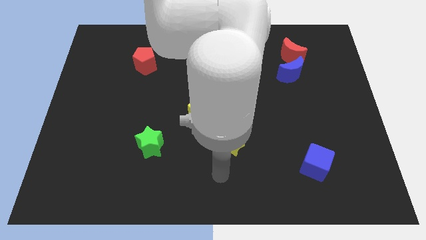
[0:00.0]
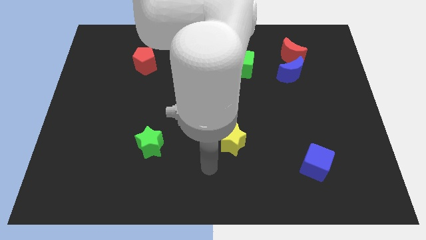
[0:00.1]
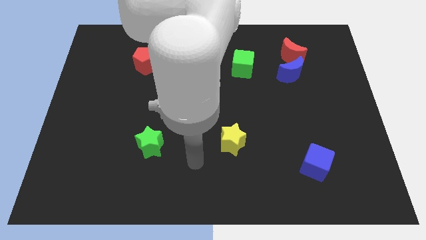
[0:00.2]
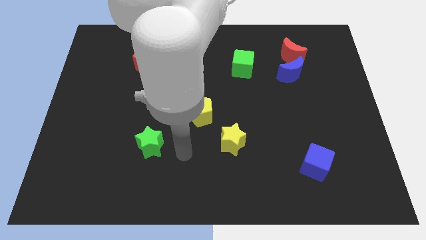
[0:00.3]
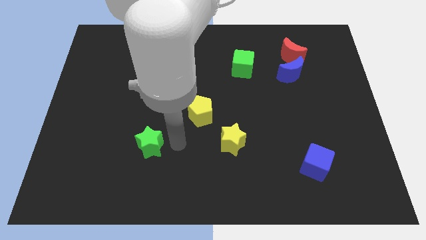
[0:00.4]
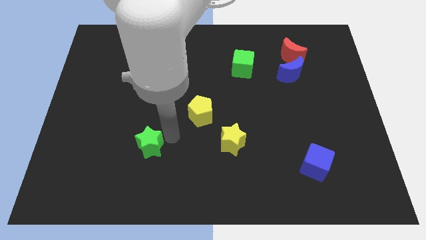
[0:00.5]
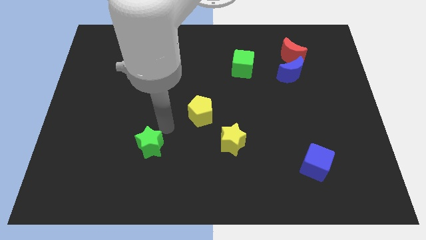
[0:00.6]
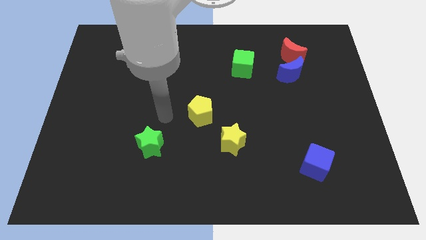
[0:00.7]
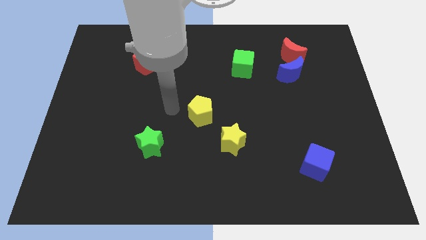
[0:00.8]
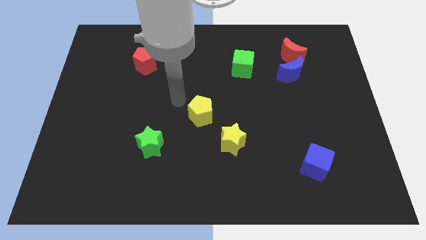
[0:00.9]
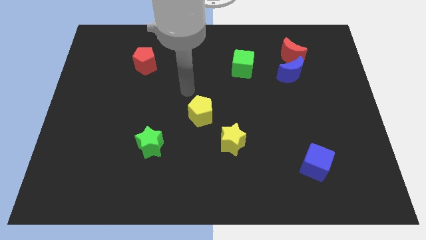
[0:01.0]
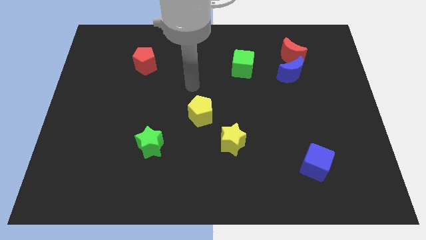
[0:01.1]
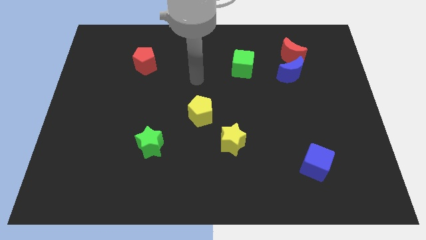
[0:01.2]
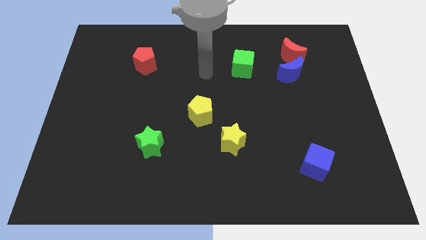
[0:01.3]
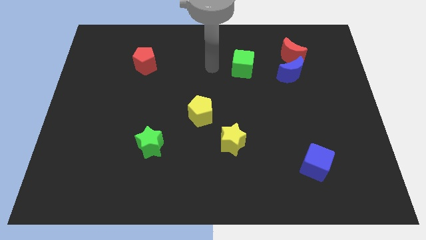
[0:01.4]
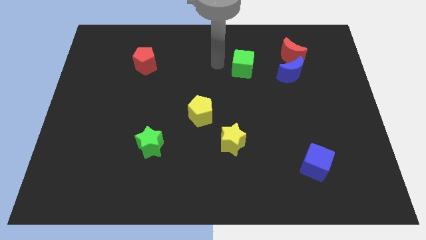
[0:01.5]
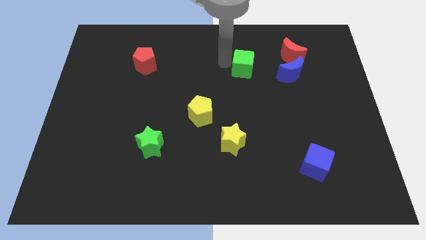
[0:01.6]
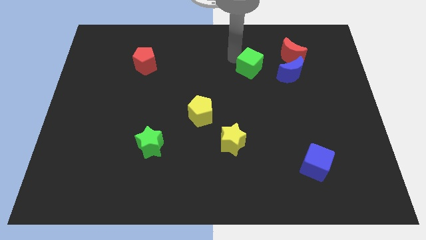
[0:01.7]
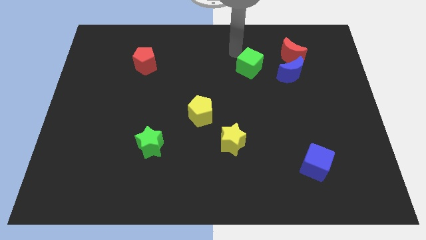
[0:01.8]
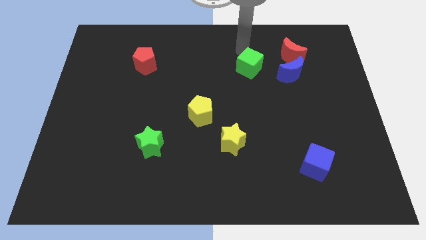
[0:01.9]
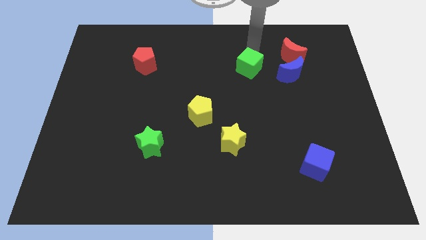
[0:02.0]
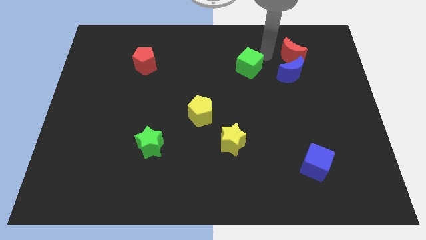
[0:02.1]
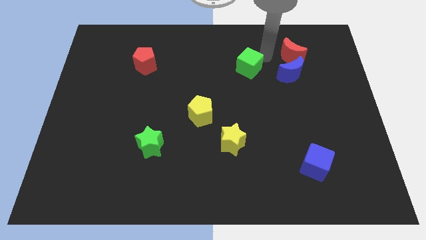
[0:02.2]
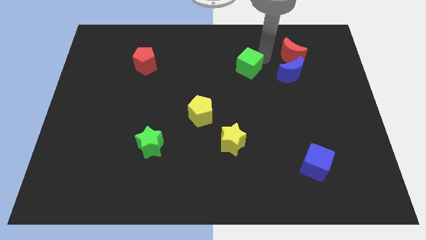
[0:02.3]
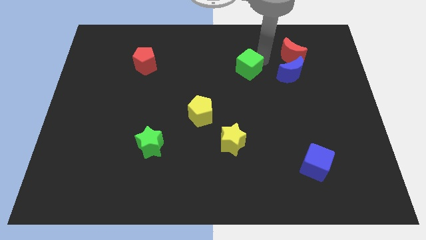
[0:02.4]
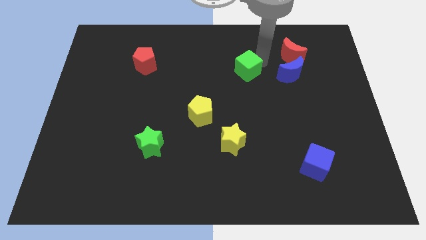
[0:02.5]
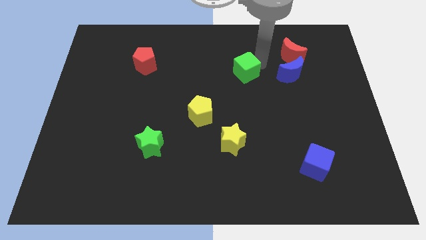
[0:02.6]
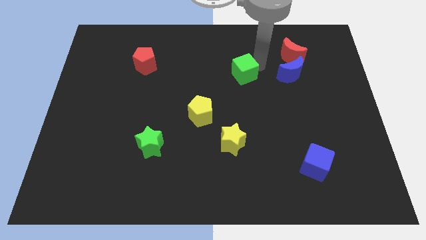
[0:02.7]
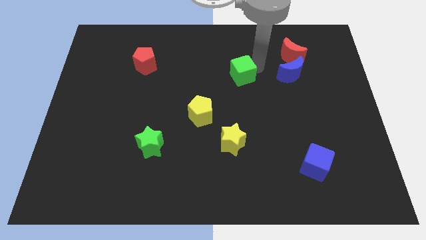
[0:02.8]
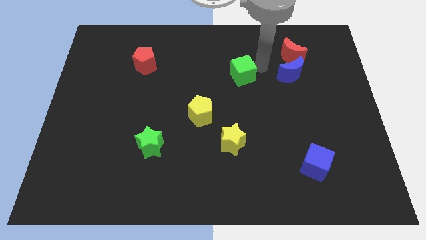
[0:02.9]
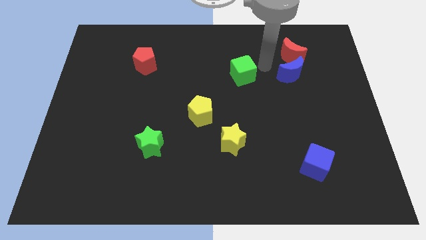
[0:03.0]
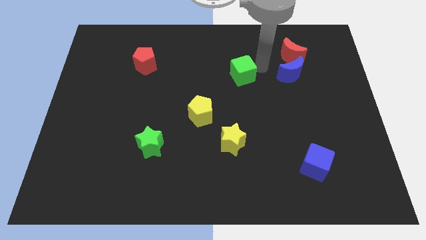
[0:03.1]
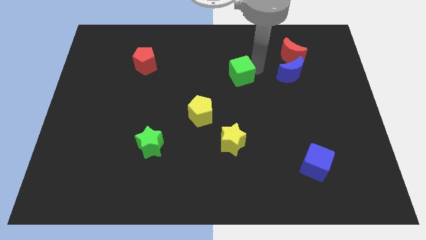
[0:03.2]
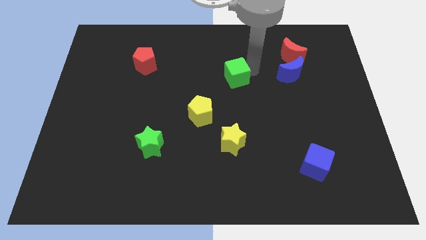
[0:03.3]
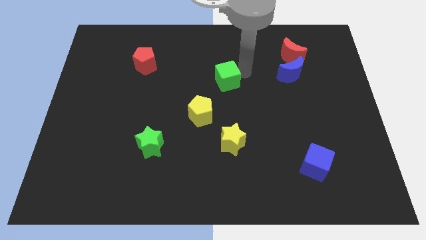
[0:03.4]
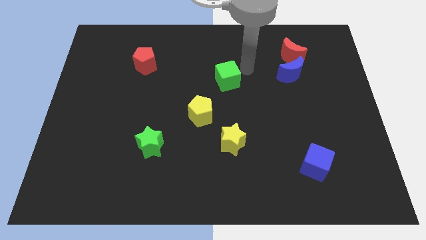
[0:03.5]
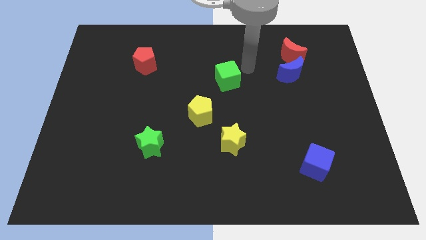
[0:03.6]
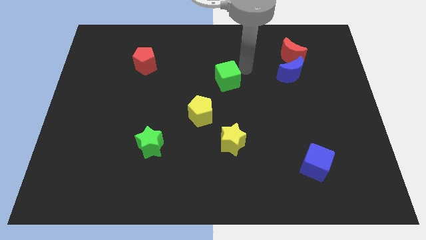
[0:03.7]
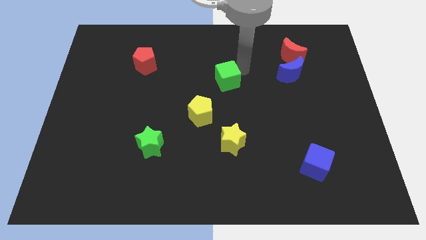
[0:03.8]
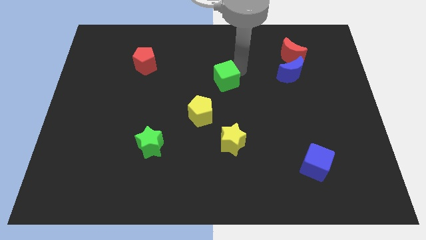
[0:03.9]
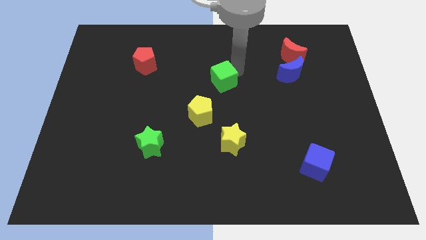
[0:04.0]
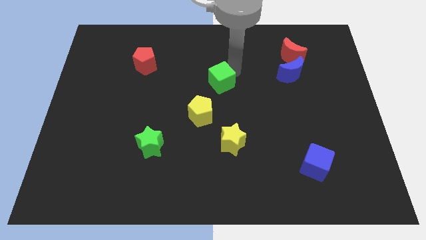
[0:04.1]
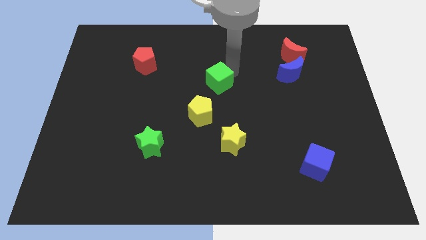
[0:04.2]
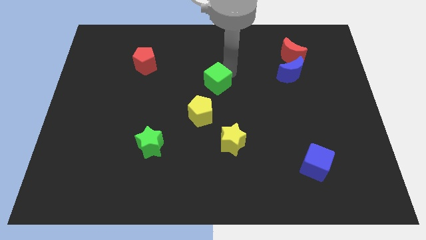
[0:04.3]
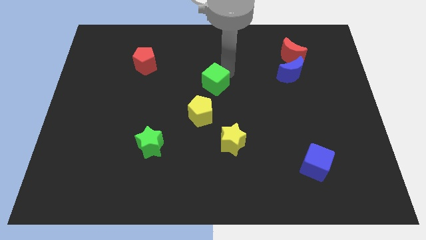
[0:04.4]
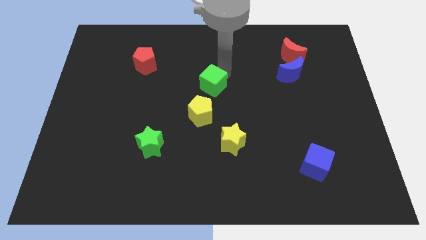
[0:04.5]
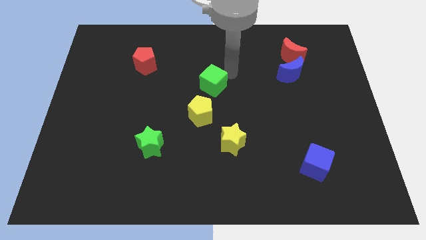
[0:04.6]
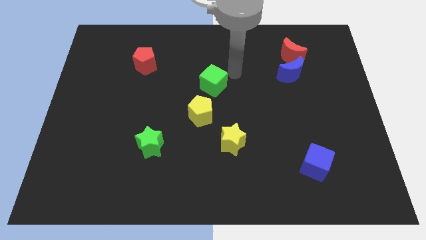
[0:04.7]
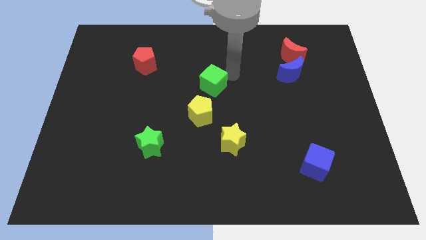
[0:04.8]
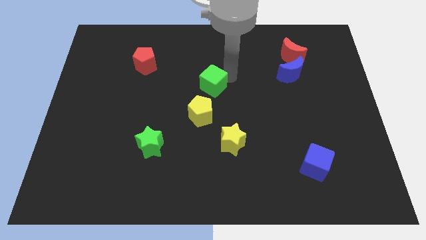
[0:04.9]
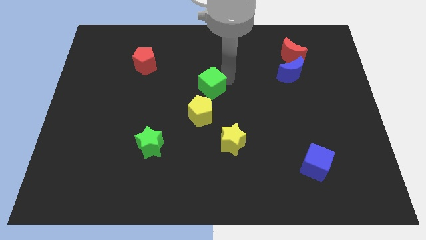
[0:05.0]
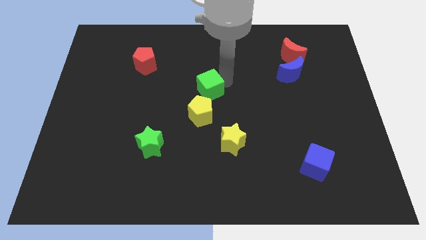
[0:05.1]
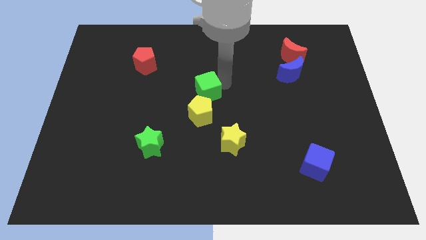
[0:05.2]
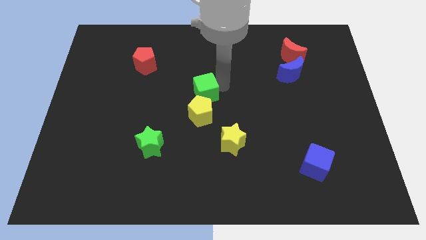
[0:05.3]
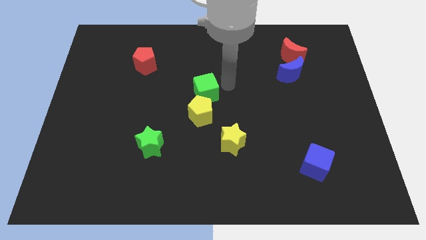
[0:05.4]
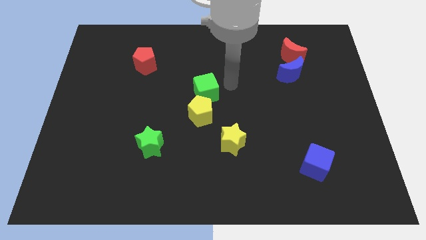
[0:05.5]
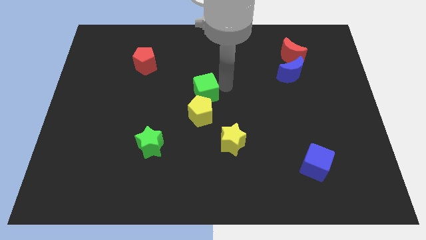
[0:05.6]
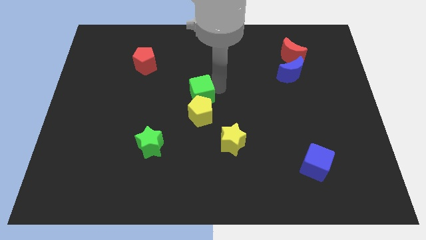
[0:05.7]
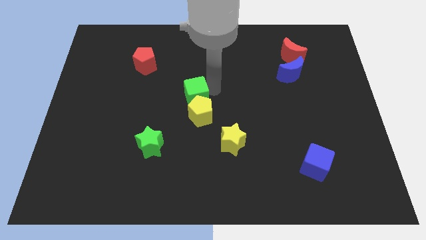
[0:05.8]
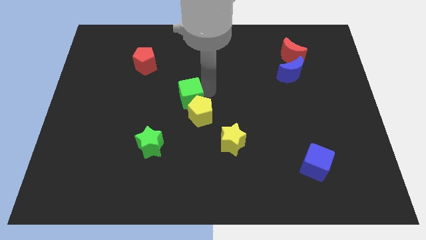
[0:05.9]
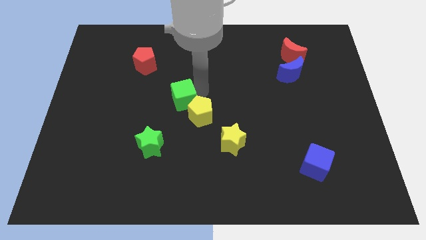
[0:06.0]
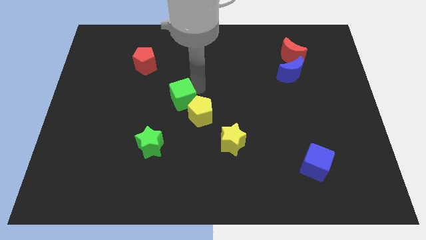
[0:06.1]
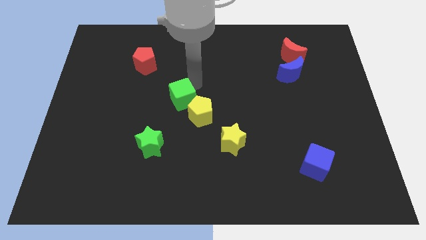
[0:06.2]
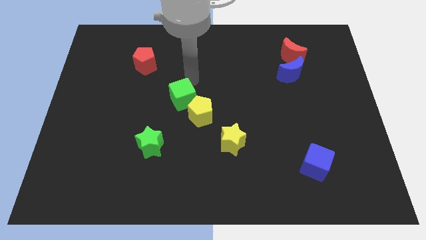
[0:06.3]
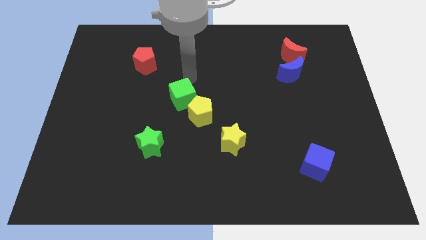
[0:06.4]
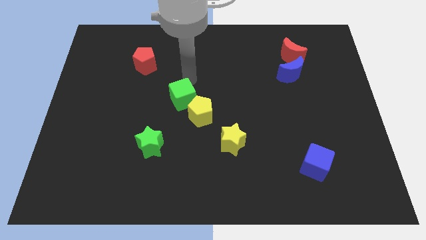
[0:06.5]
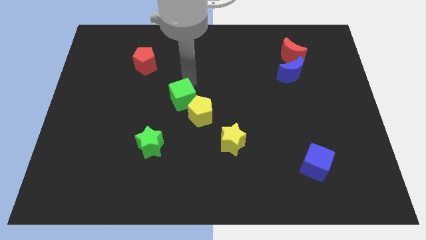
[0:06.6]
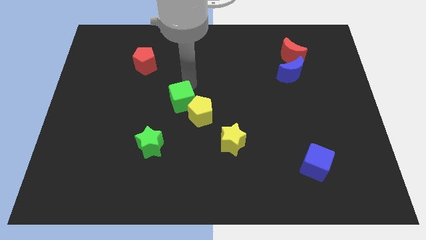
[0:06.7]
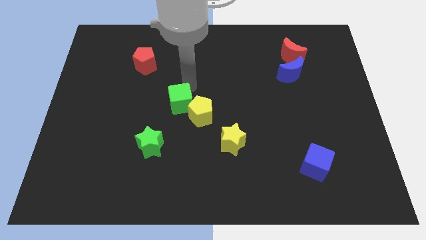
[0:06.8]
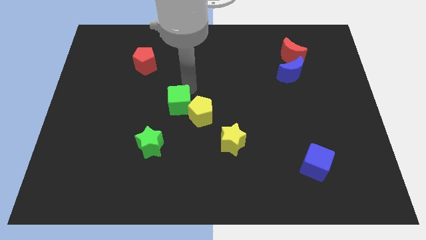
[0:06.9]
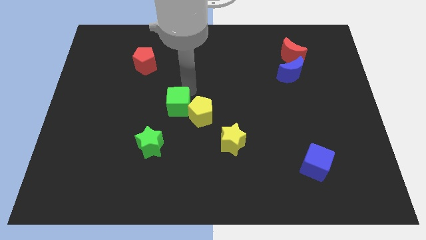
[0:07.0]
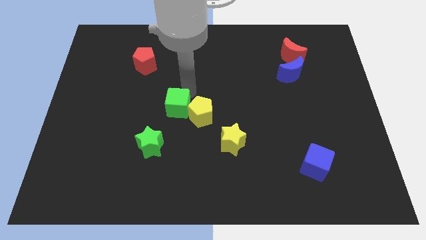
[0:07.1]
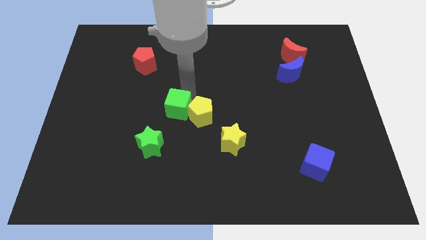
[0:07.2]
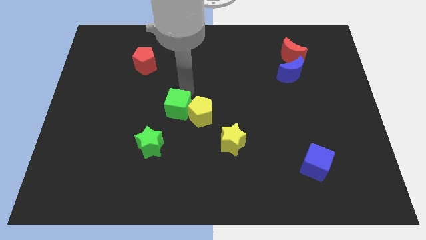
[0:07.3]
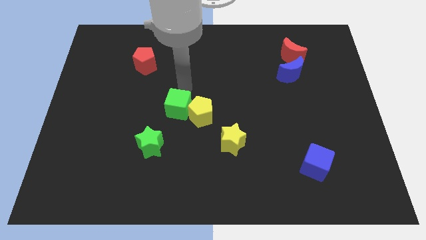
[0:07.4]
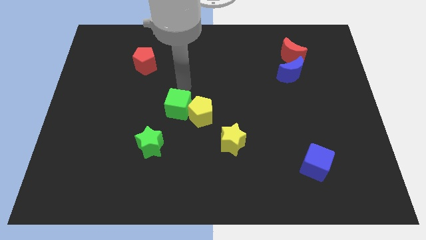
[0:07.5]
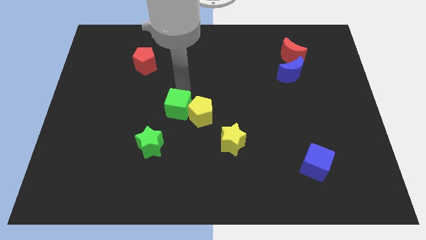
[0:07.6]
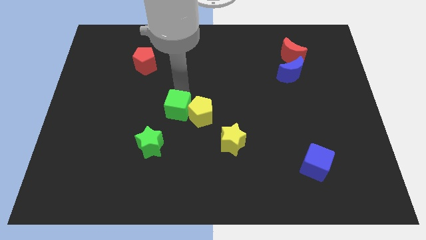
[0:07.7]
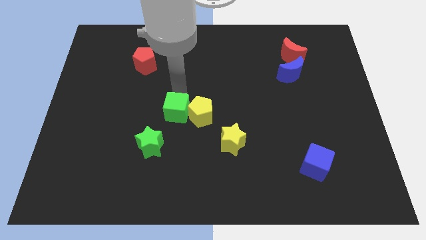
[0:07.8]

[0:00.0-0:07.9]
push the green cube diagonally down and to the left of the yellow pentagon
